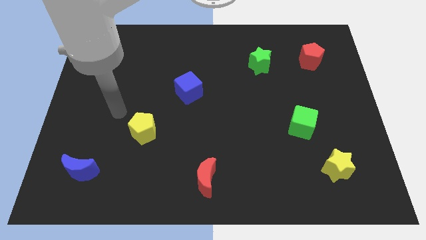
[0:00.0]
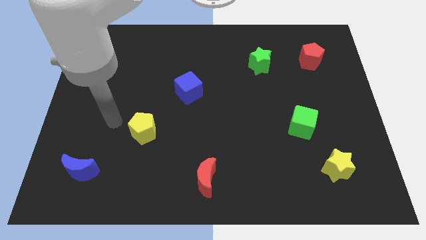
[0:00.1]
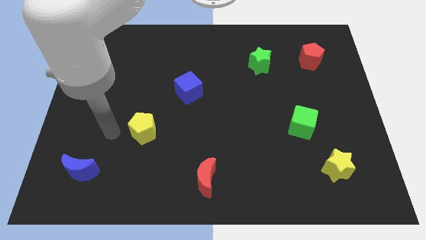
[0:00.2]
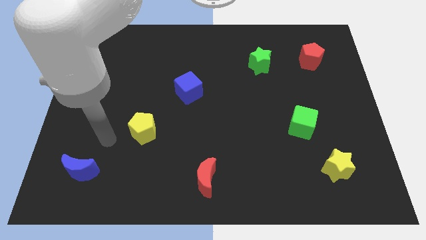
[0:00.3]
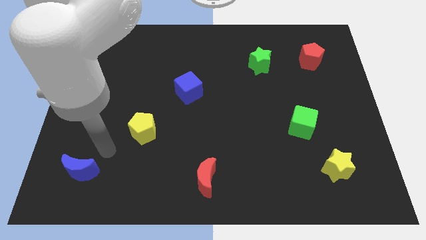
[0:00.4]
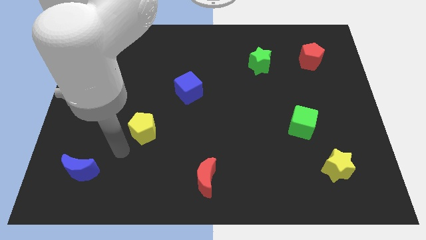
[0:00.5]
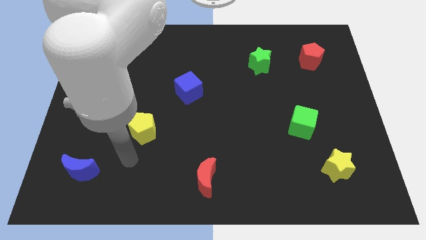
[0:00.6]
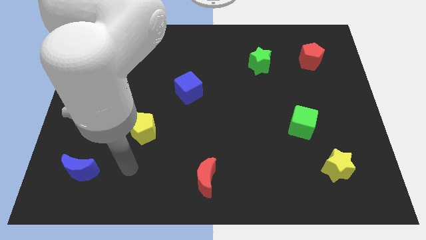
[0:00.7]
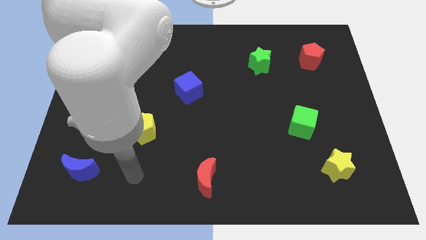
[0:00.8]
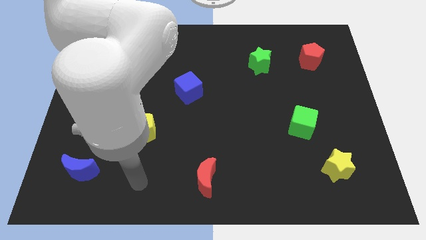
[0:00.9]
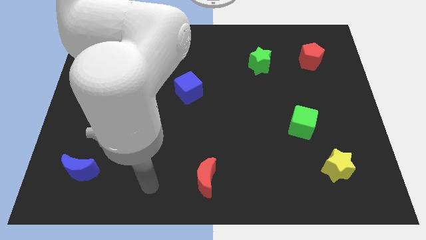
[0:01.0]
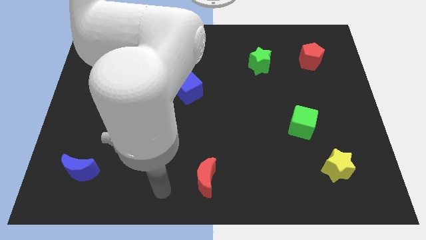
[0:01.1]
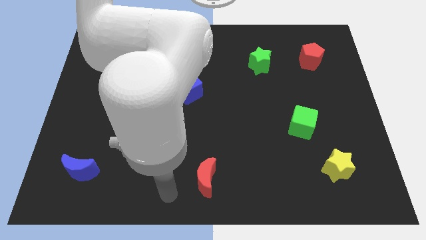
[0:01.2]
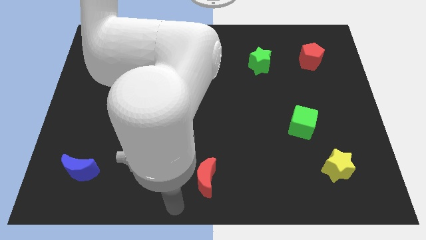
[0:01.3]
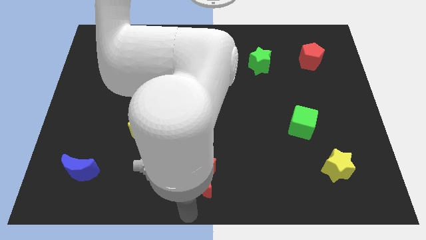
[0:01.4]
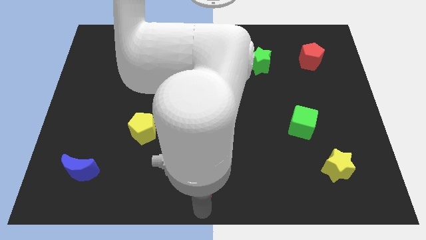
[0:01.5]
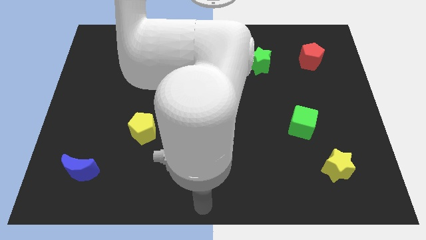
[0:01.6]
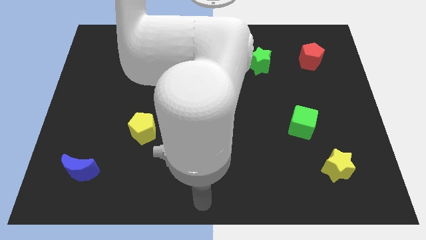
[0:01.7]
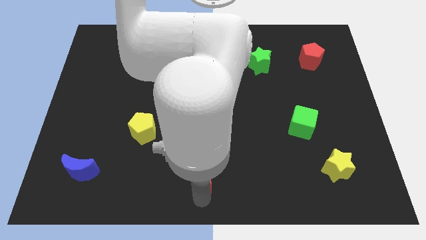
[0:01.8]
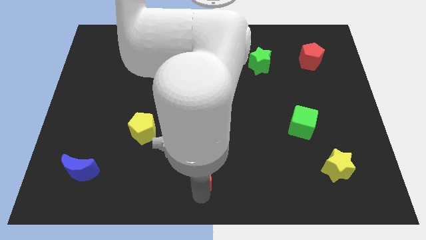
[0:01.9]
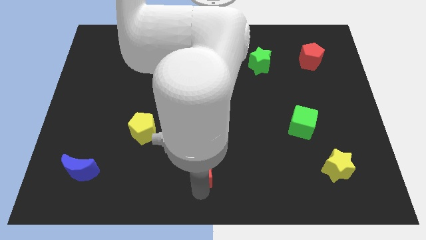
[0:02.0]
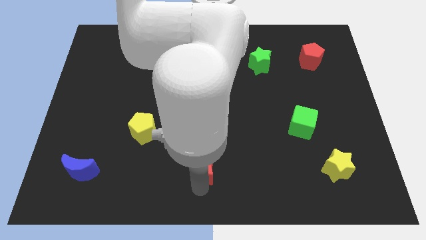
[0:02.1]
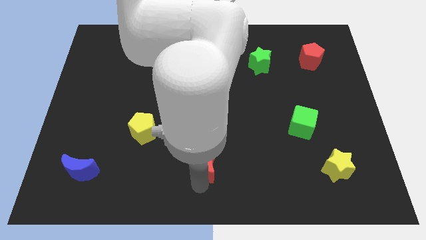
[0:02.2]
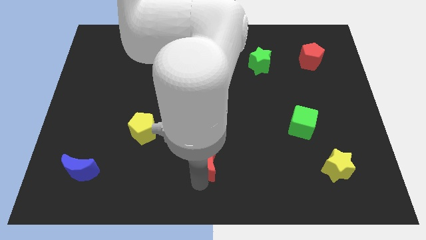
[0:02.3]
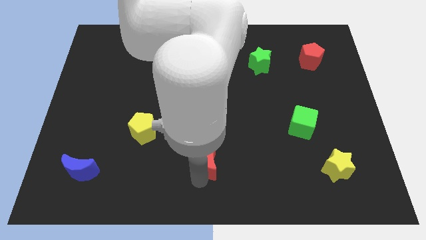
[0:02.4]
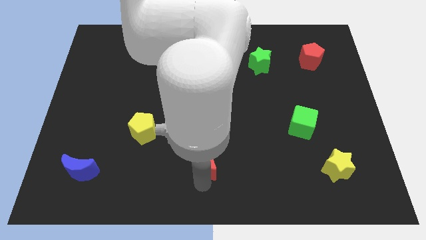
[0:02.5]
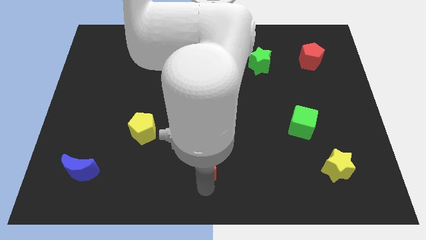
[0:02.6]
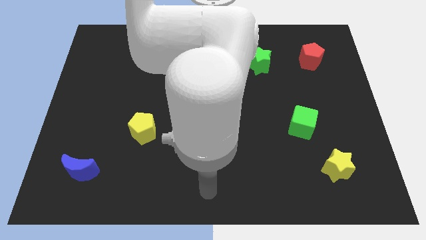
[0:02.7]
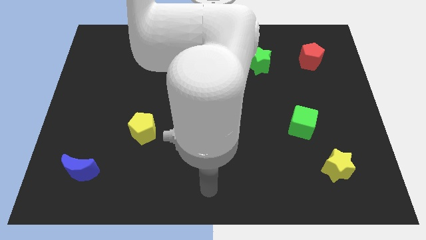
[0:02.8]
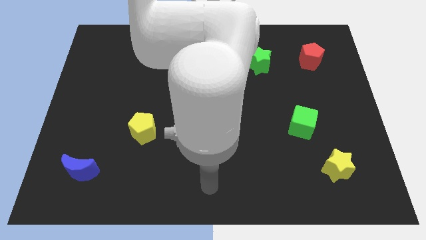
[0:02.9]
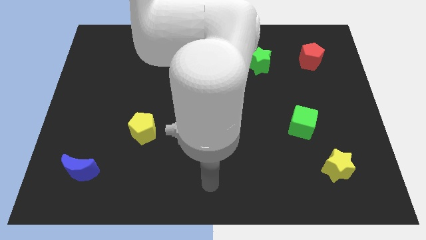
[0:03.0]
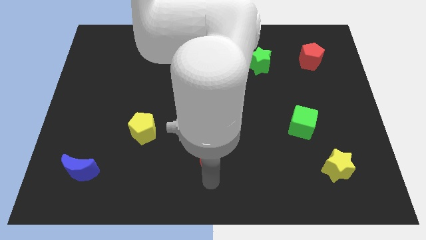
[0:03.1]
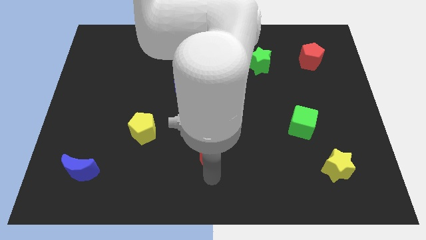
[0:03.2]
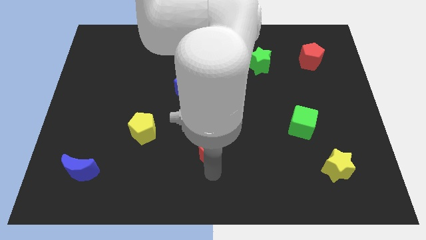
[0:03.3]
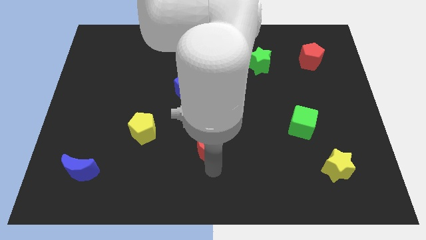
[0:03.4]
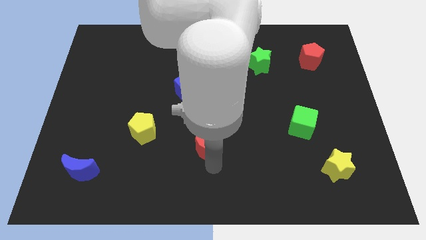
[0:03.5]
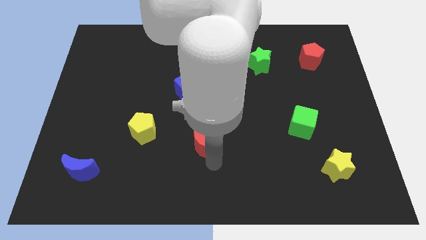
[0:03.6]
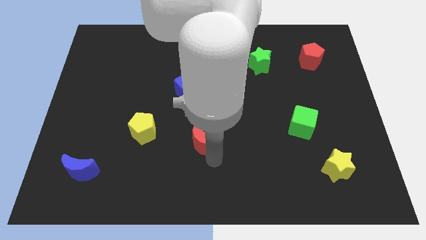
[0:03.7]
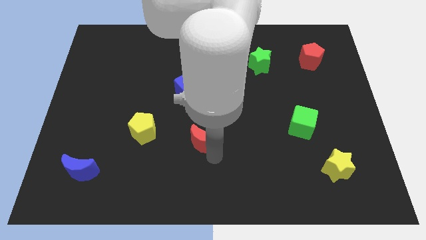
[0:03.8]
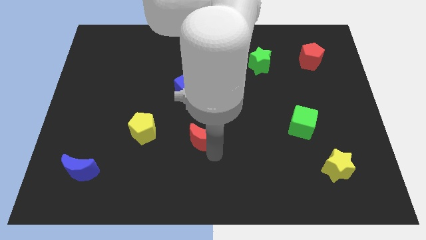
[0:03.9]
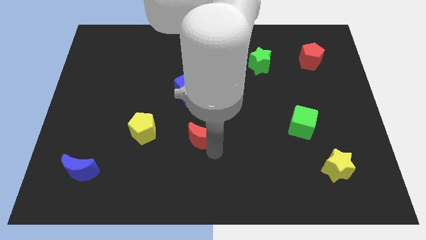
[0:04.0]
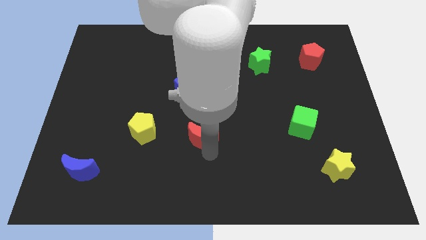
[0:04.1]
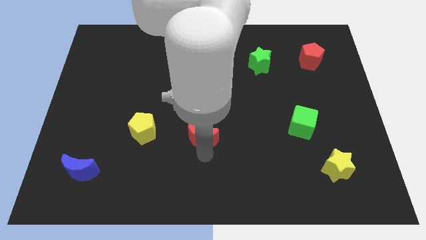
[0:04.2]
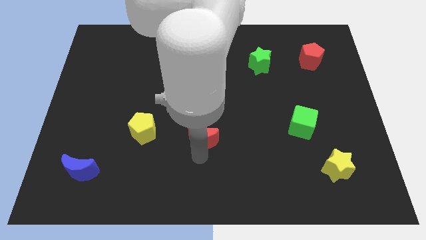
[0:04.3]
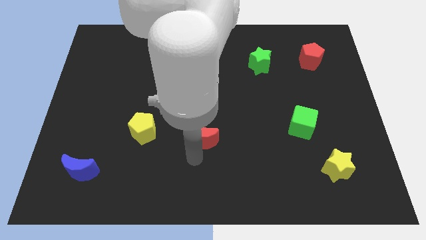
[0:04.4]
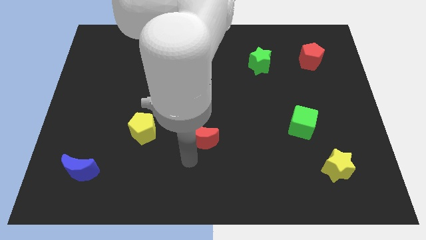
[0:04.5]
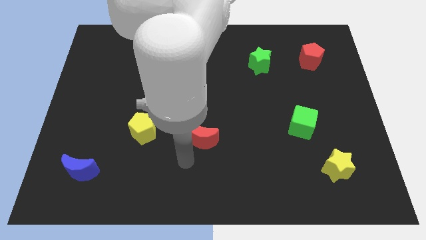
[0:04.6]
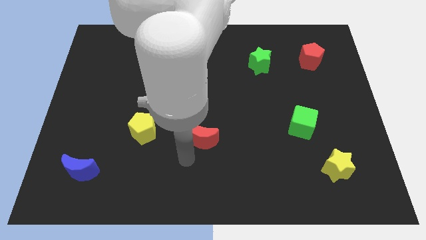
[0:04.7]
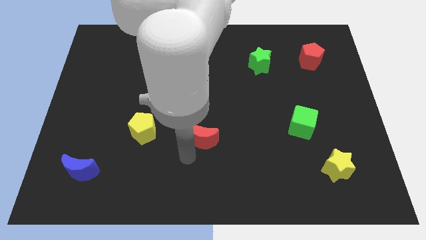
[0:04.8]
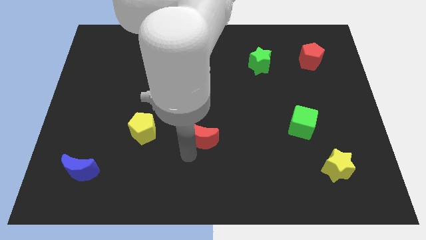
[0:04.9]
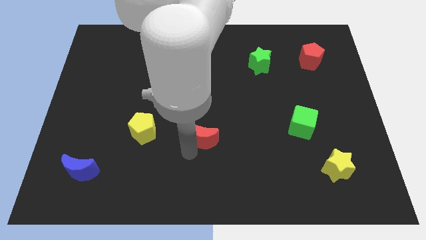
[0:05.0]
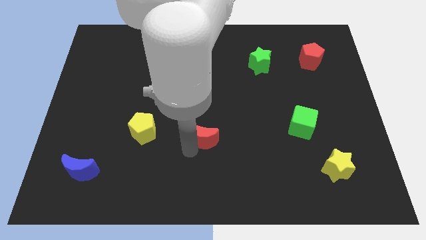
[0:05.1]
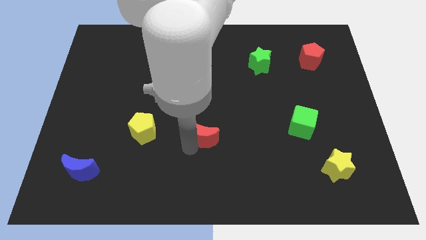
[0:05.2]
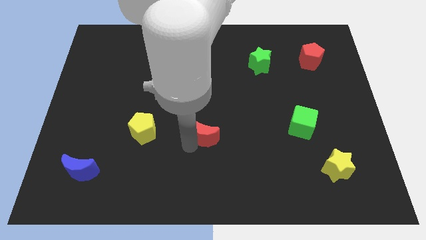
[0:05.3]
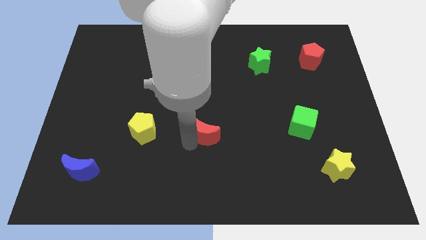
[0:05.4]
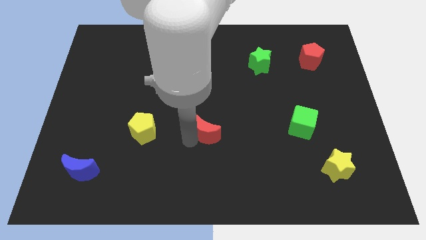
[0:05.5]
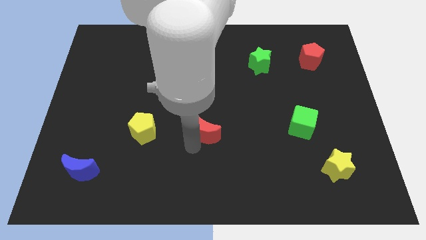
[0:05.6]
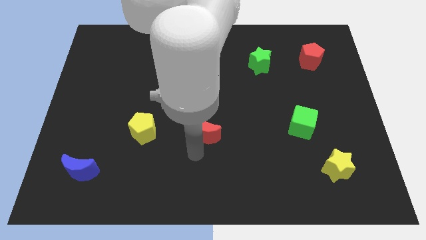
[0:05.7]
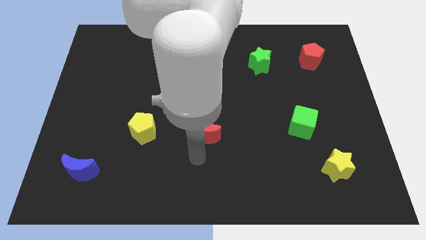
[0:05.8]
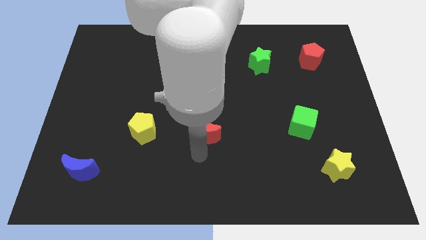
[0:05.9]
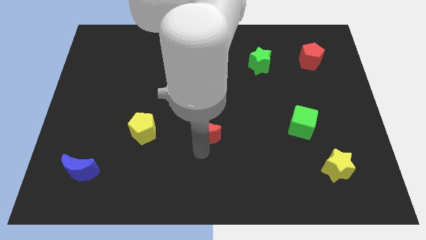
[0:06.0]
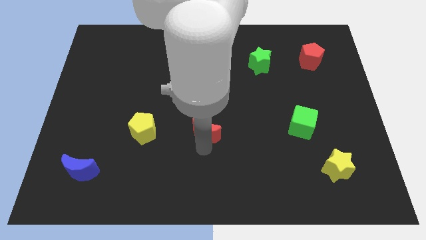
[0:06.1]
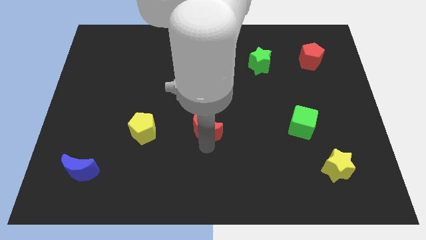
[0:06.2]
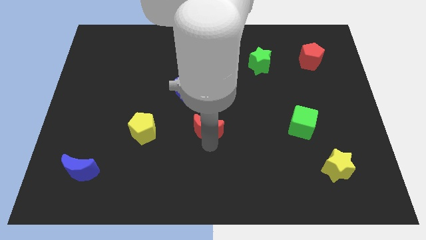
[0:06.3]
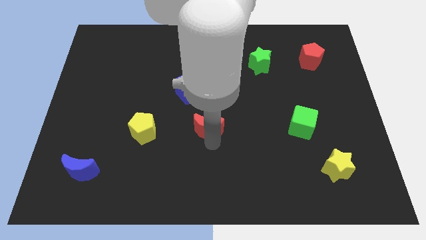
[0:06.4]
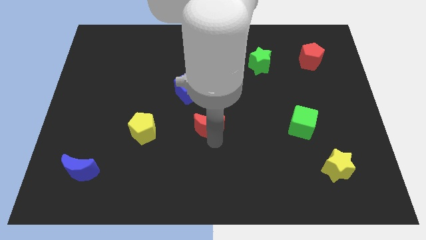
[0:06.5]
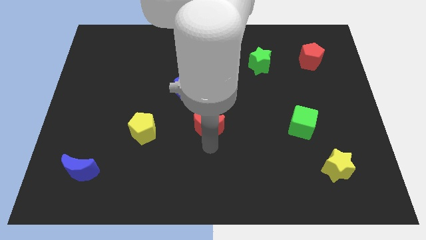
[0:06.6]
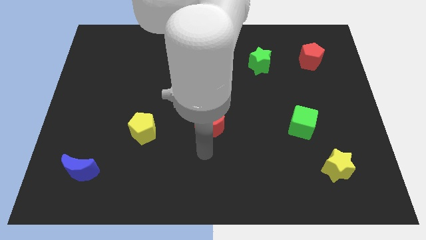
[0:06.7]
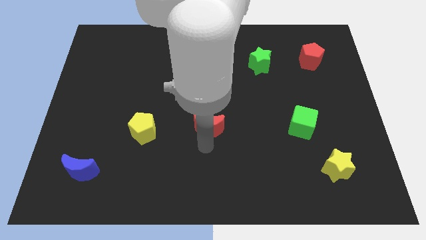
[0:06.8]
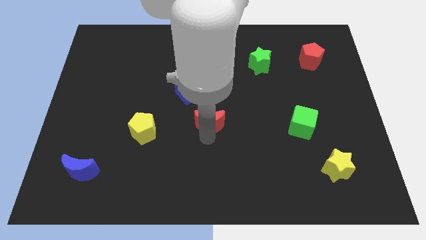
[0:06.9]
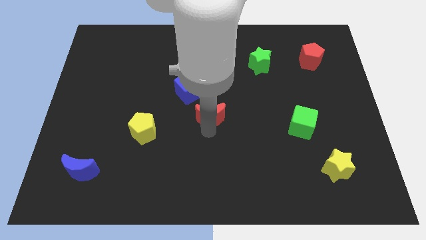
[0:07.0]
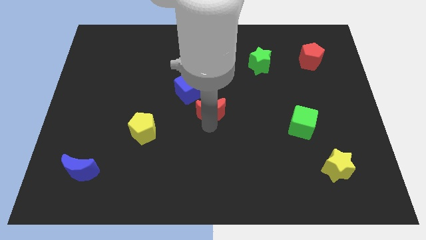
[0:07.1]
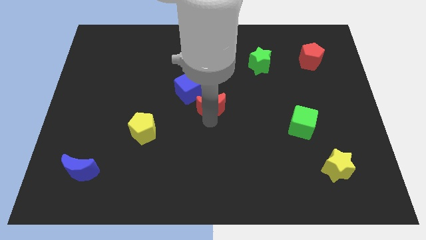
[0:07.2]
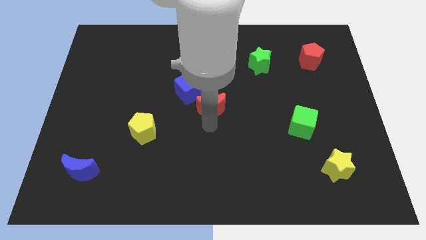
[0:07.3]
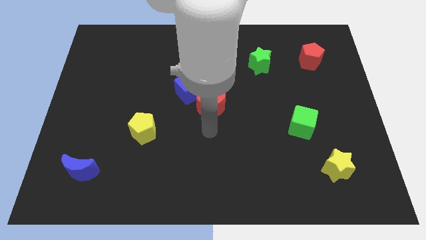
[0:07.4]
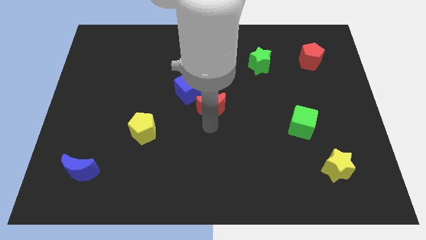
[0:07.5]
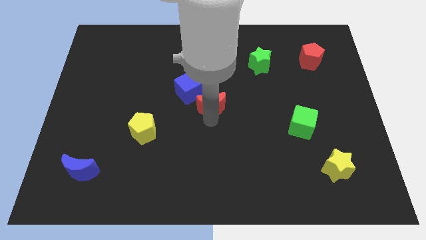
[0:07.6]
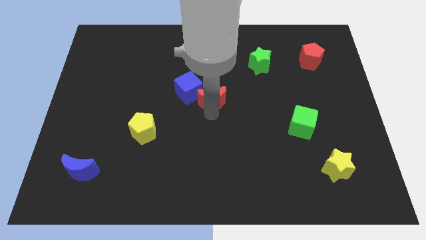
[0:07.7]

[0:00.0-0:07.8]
push the red moon upwards
